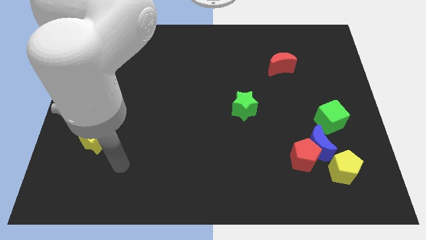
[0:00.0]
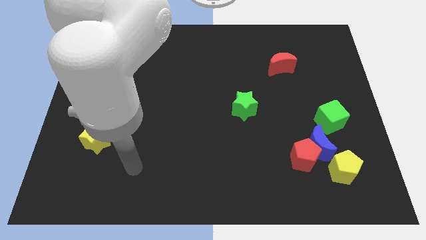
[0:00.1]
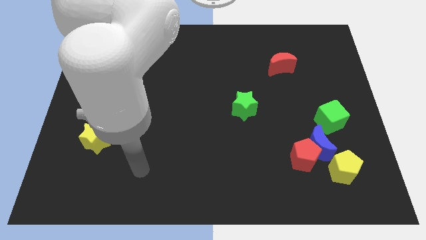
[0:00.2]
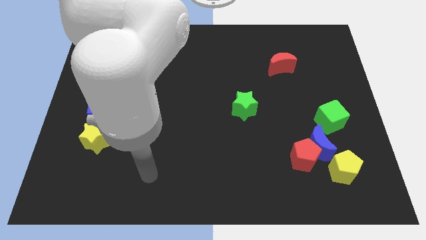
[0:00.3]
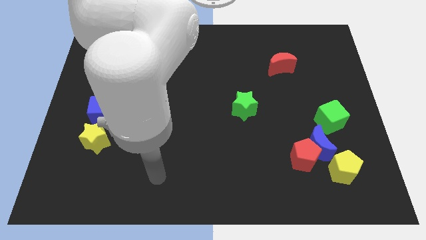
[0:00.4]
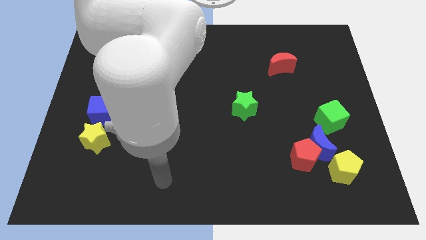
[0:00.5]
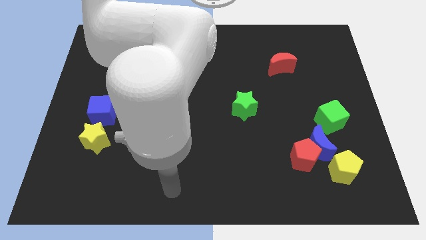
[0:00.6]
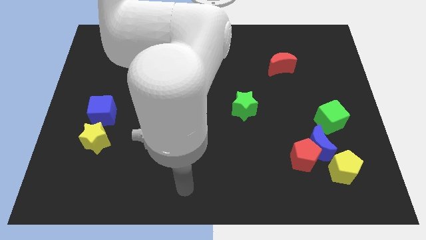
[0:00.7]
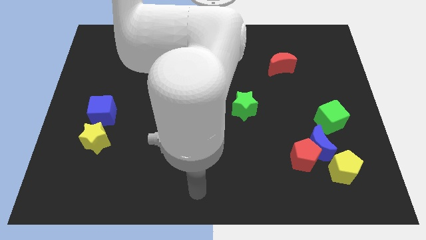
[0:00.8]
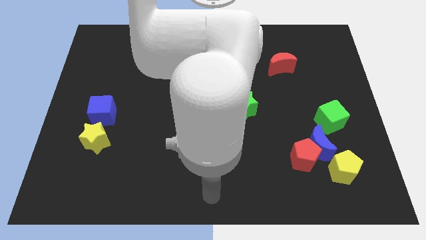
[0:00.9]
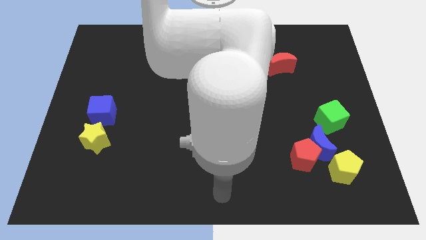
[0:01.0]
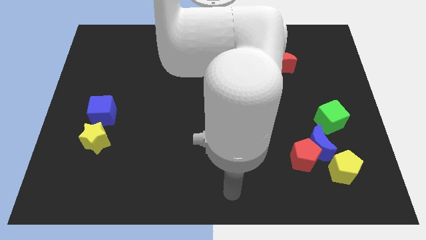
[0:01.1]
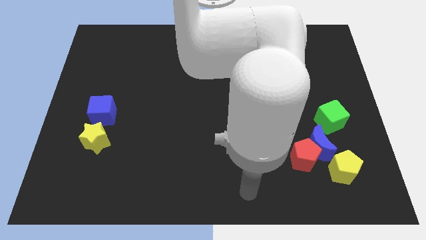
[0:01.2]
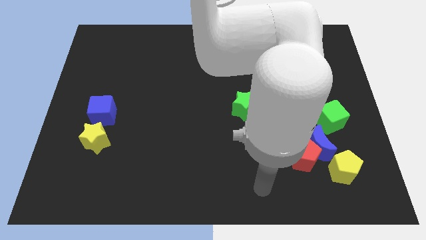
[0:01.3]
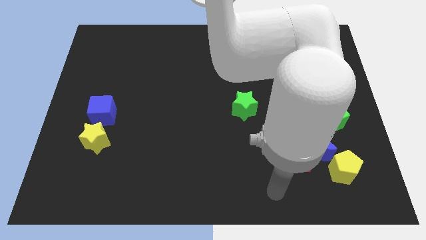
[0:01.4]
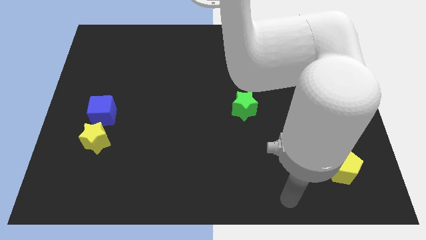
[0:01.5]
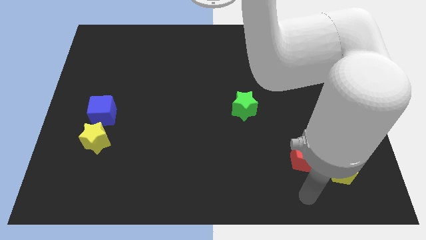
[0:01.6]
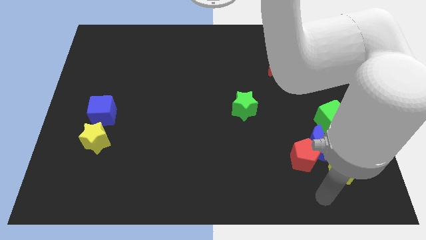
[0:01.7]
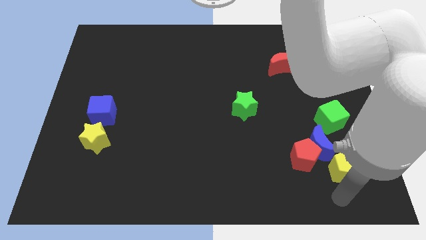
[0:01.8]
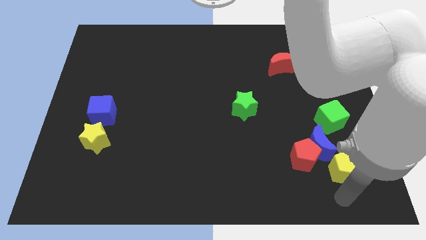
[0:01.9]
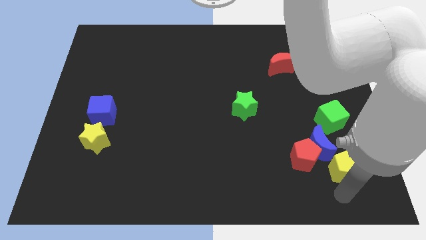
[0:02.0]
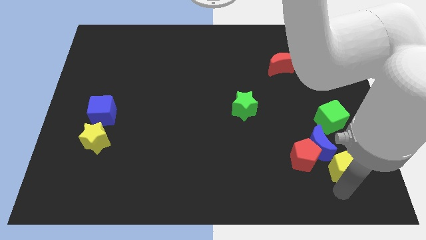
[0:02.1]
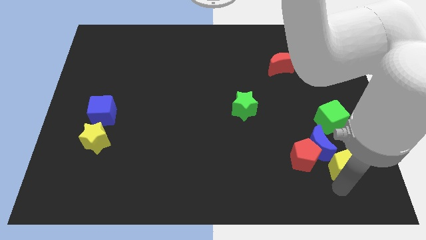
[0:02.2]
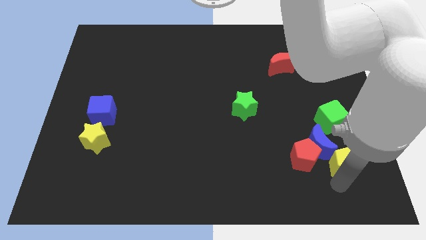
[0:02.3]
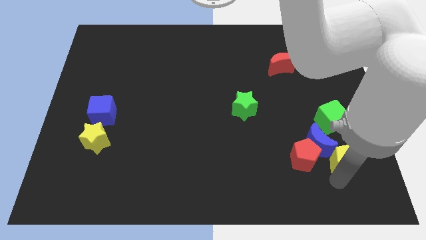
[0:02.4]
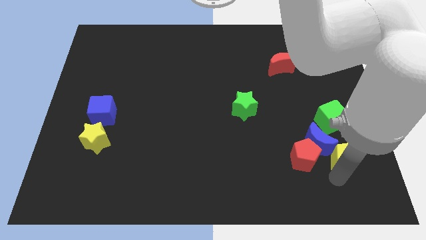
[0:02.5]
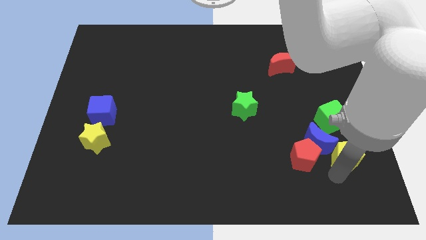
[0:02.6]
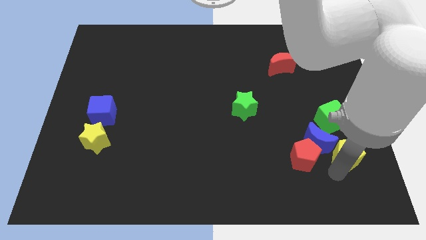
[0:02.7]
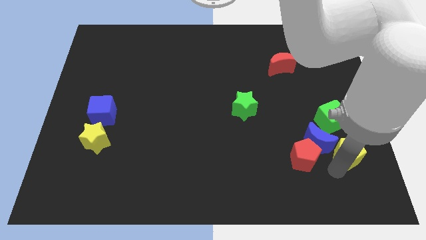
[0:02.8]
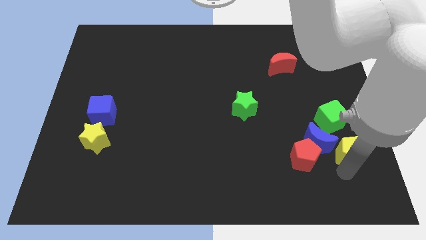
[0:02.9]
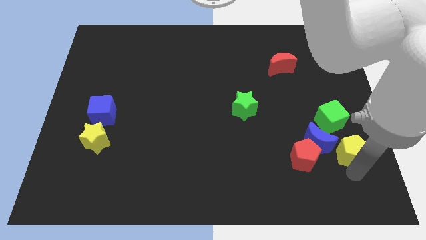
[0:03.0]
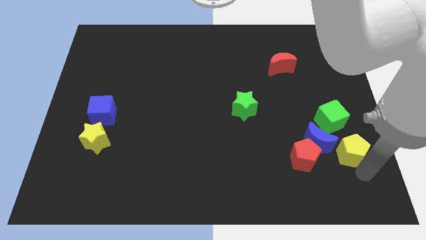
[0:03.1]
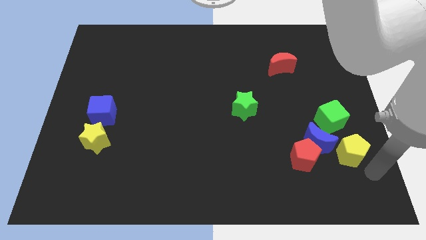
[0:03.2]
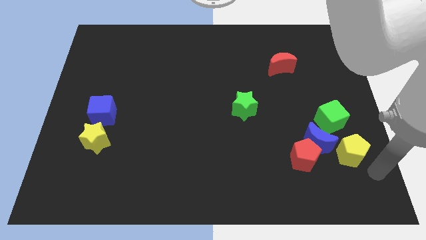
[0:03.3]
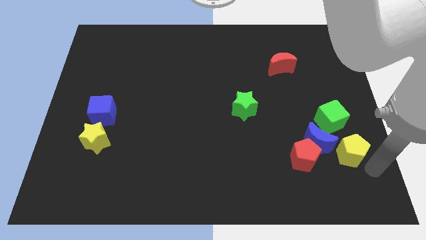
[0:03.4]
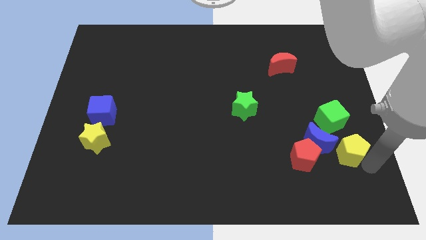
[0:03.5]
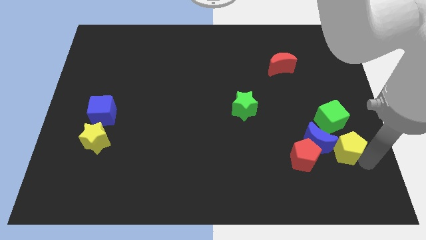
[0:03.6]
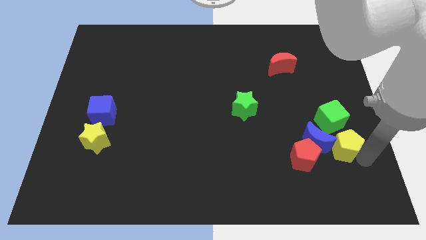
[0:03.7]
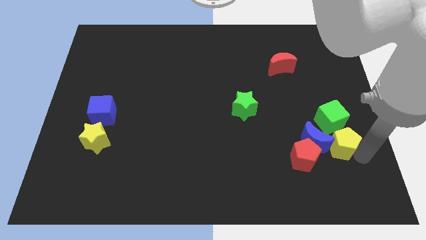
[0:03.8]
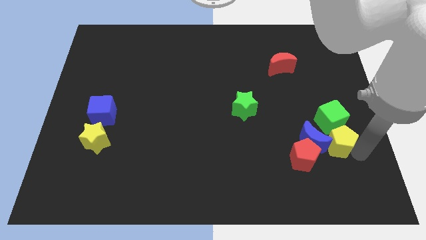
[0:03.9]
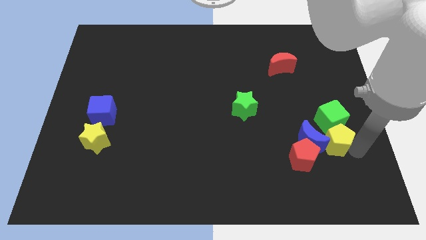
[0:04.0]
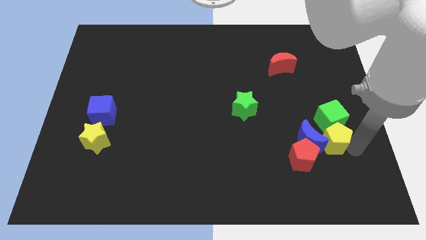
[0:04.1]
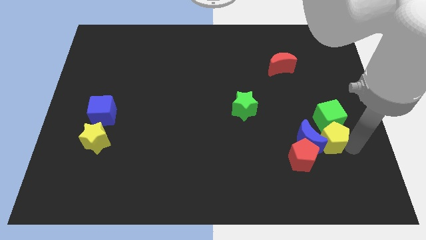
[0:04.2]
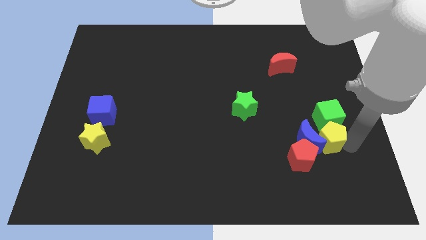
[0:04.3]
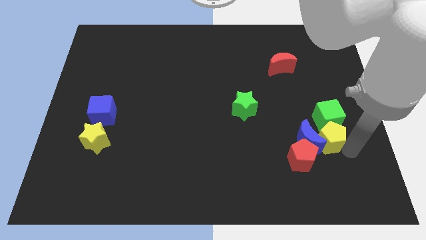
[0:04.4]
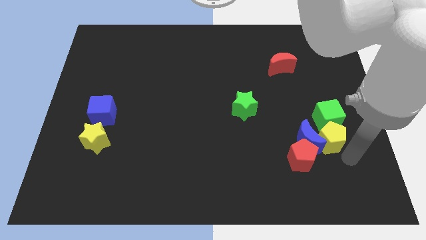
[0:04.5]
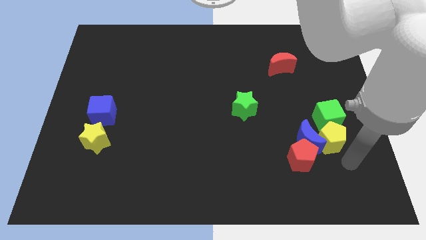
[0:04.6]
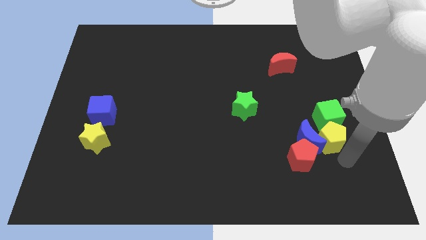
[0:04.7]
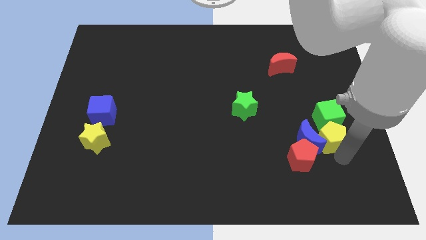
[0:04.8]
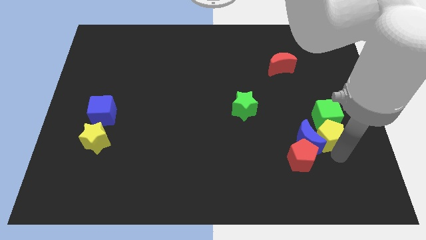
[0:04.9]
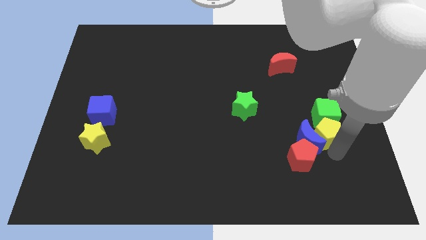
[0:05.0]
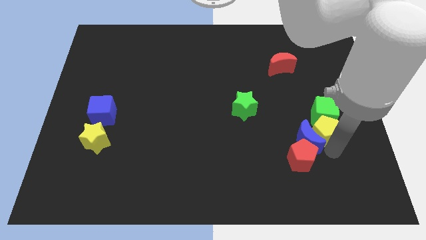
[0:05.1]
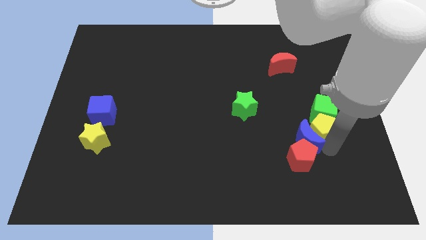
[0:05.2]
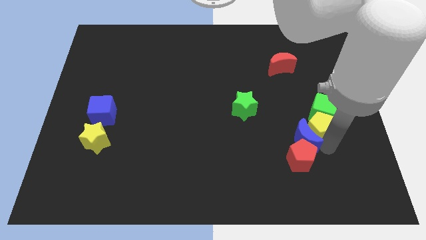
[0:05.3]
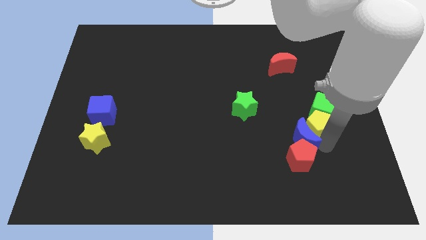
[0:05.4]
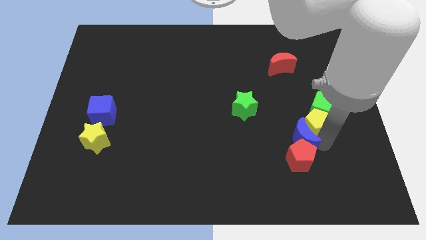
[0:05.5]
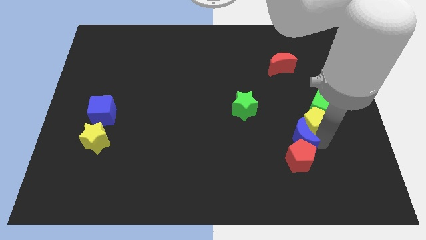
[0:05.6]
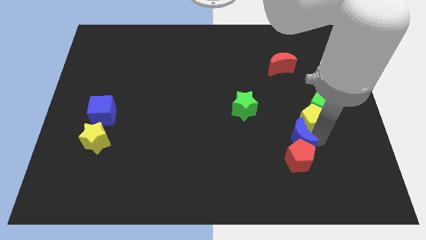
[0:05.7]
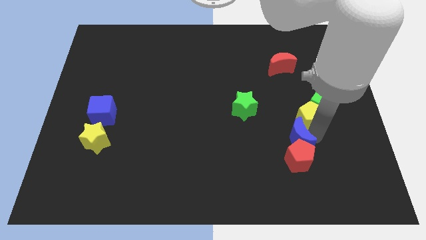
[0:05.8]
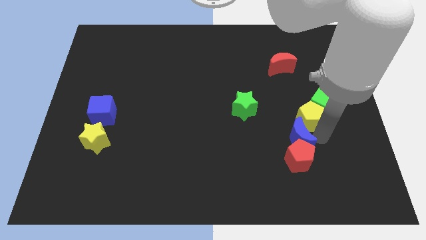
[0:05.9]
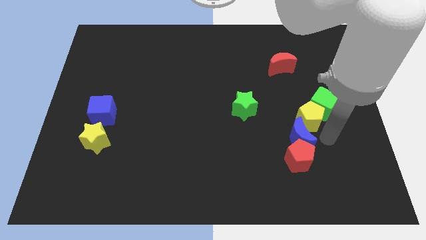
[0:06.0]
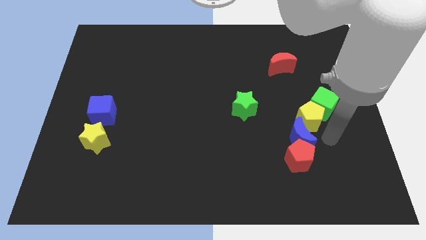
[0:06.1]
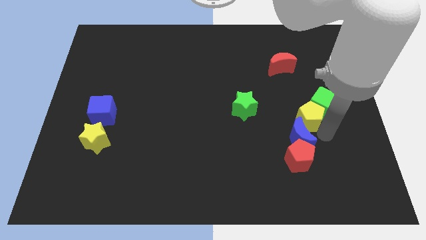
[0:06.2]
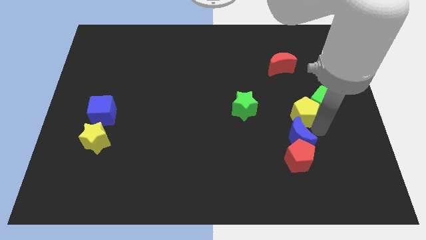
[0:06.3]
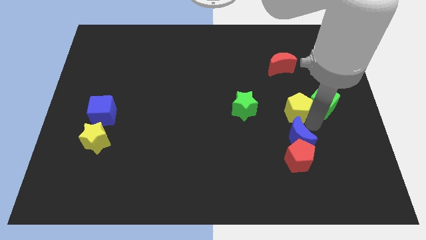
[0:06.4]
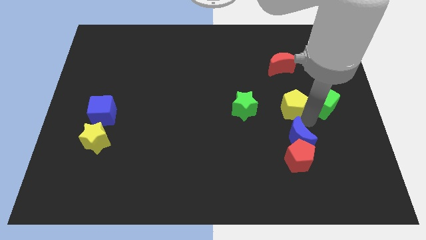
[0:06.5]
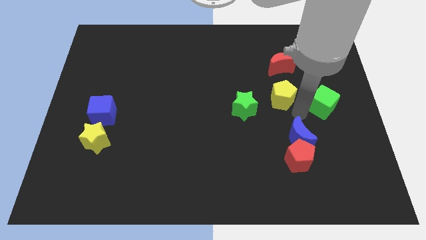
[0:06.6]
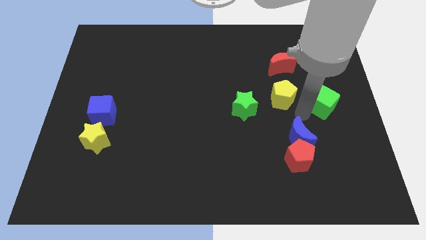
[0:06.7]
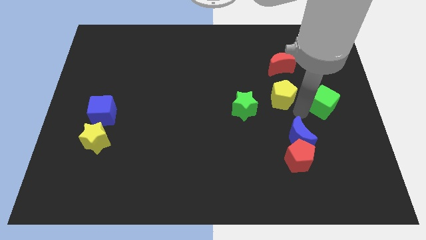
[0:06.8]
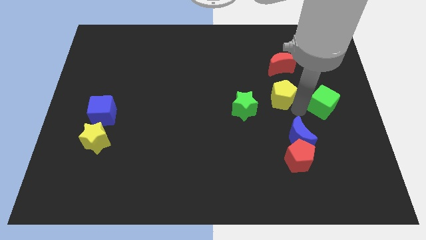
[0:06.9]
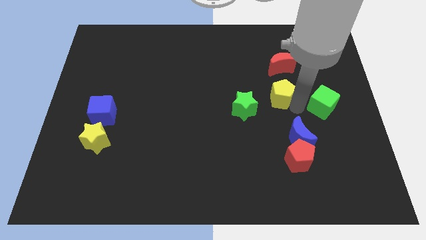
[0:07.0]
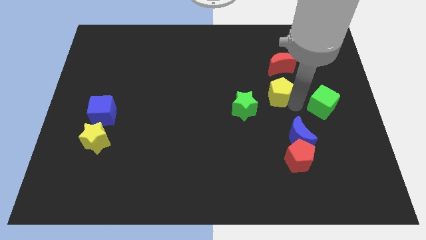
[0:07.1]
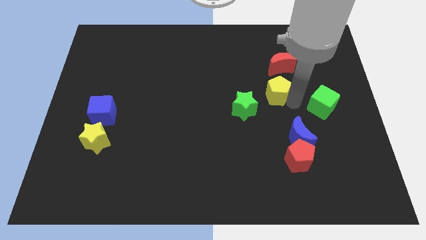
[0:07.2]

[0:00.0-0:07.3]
push the yellow pentagon to the bottom left side of the red moon
